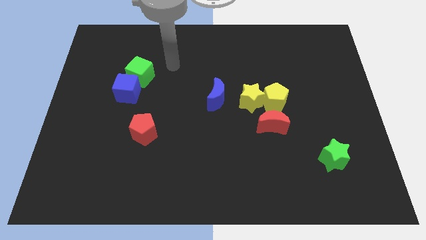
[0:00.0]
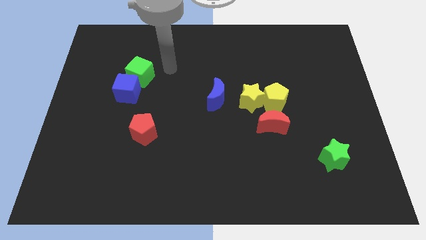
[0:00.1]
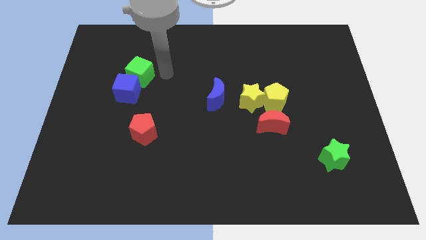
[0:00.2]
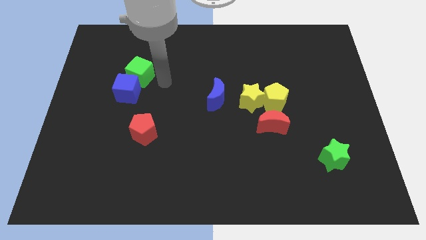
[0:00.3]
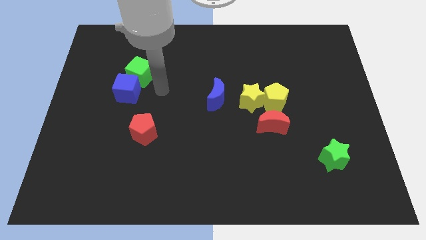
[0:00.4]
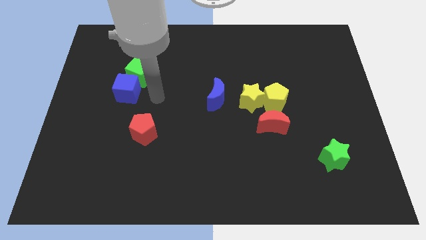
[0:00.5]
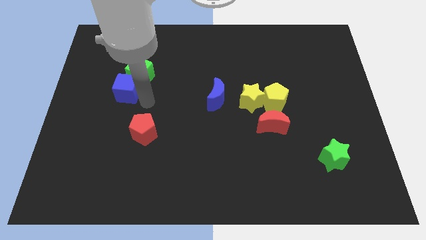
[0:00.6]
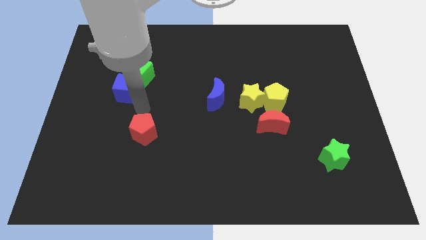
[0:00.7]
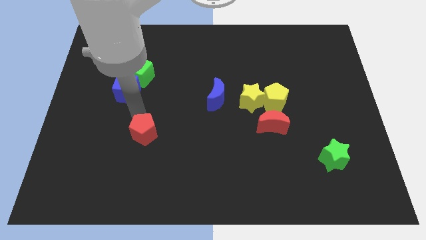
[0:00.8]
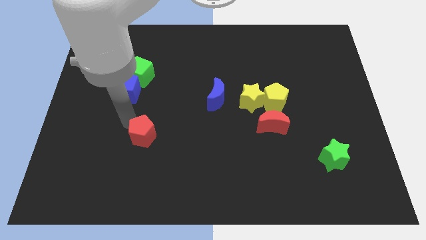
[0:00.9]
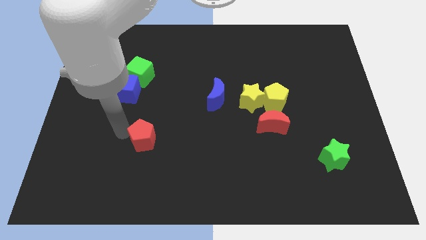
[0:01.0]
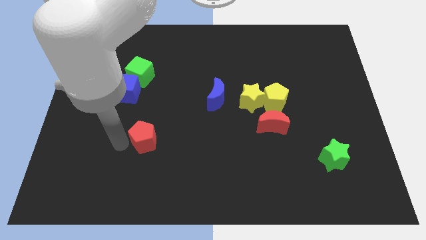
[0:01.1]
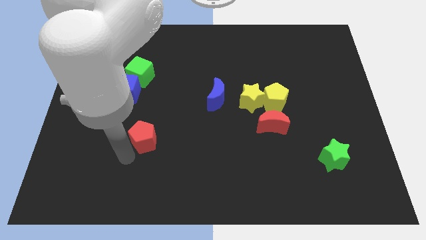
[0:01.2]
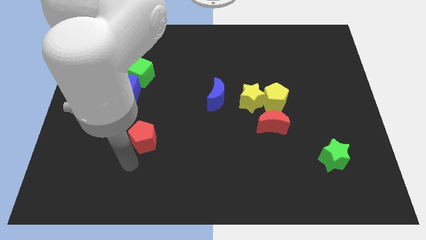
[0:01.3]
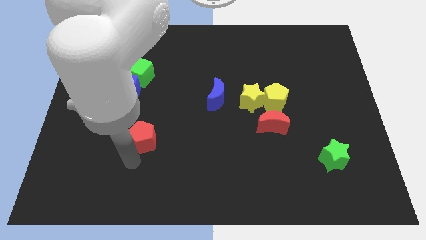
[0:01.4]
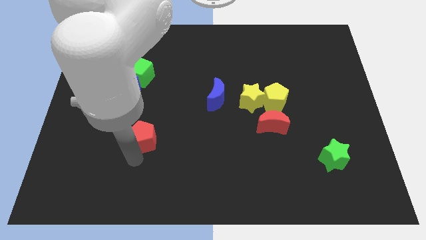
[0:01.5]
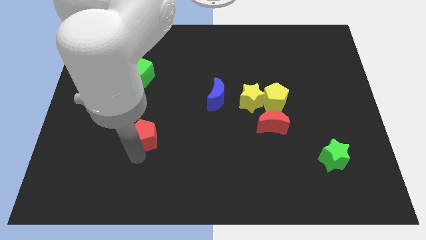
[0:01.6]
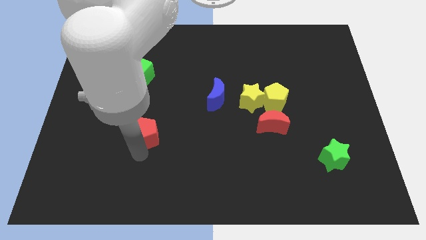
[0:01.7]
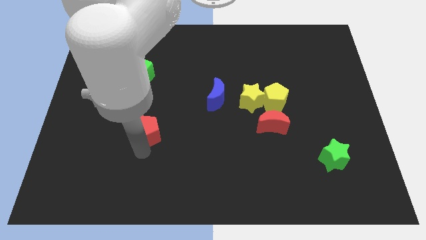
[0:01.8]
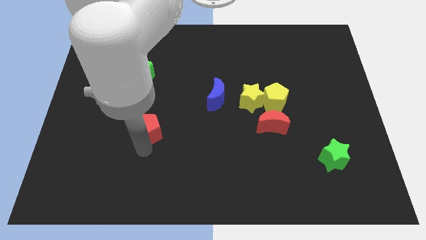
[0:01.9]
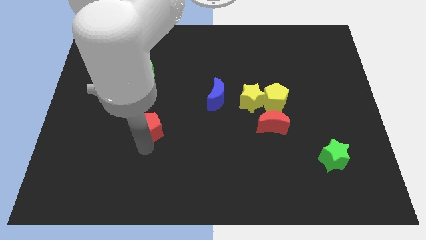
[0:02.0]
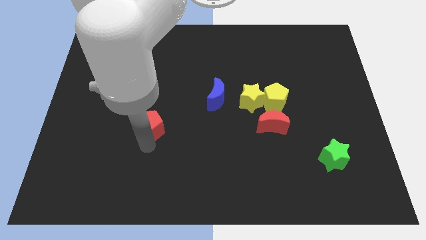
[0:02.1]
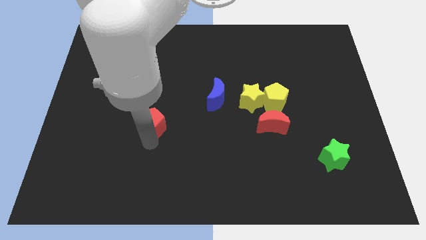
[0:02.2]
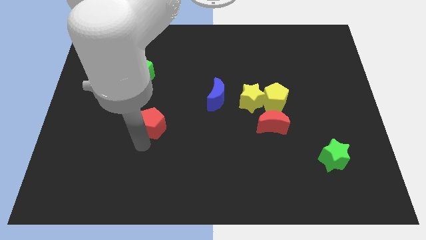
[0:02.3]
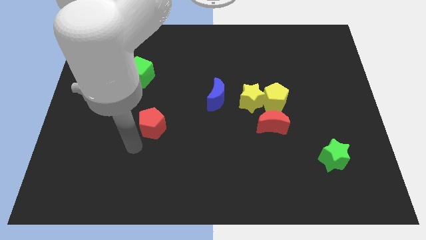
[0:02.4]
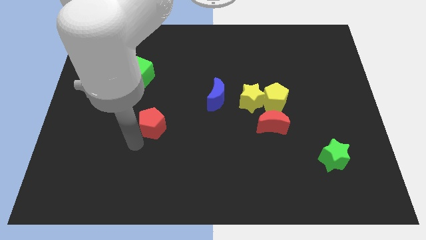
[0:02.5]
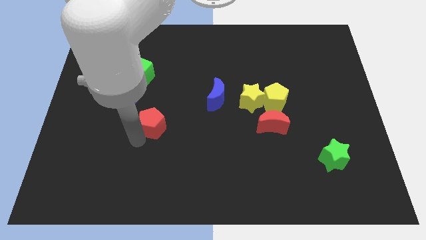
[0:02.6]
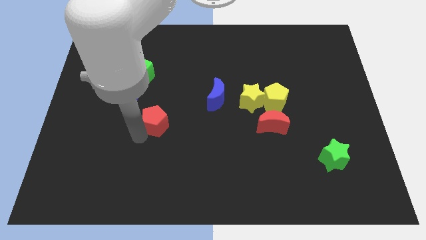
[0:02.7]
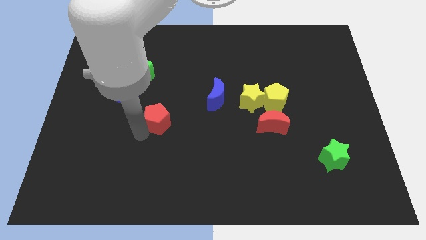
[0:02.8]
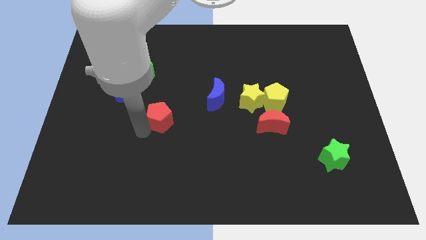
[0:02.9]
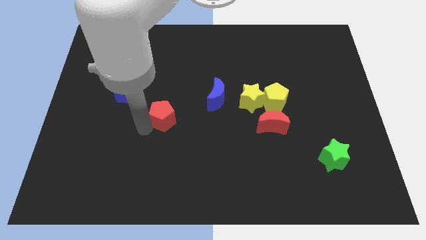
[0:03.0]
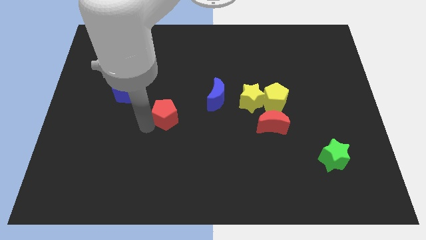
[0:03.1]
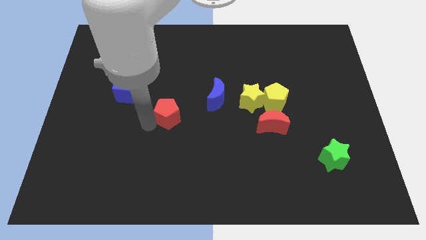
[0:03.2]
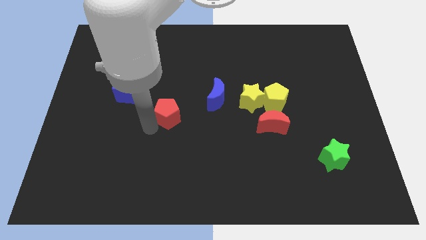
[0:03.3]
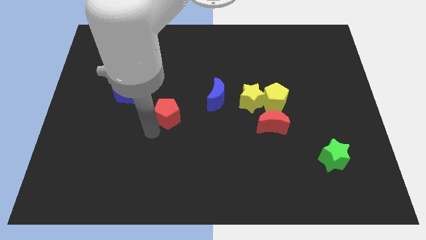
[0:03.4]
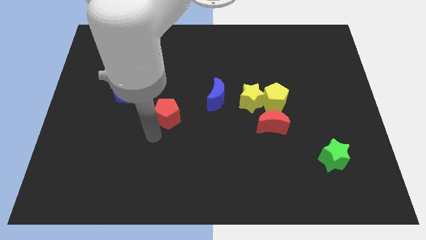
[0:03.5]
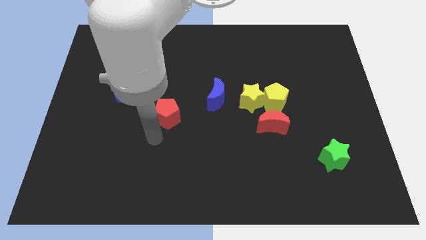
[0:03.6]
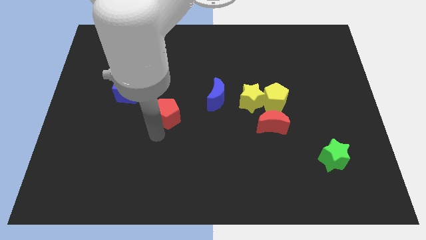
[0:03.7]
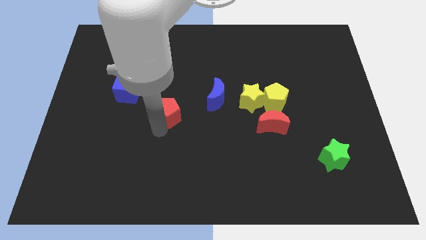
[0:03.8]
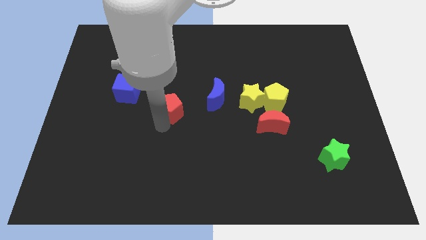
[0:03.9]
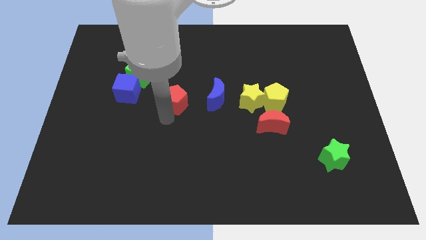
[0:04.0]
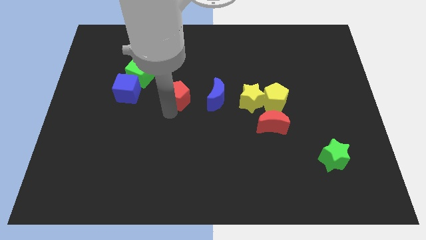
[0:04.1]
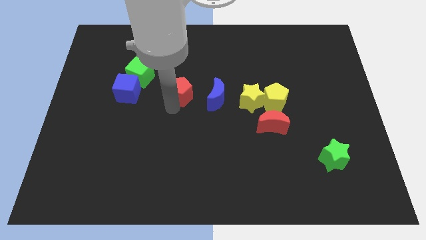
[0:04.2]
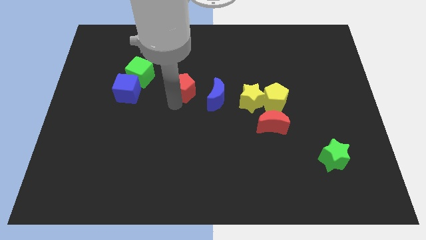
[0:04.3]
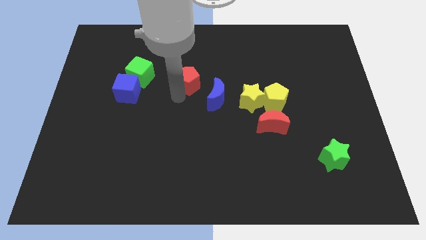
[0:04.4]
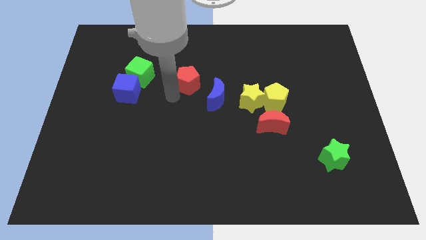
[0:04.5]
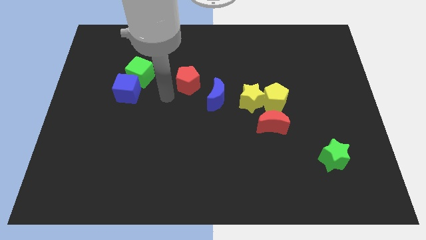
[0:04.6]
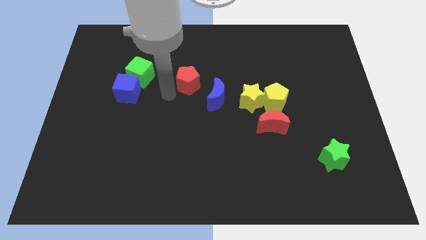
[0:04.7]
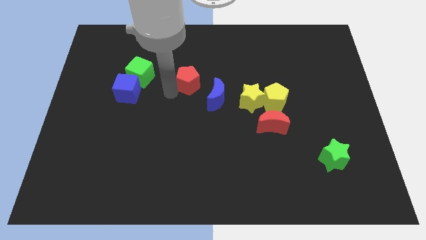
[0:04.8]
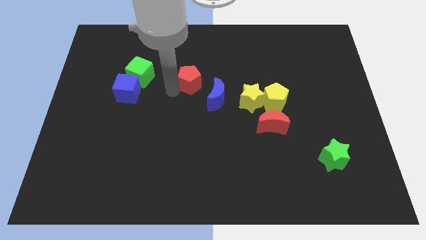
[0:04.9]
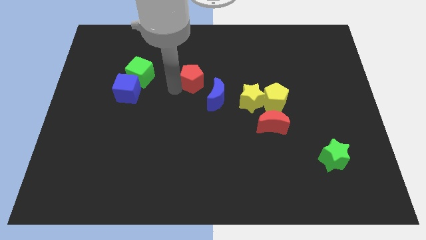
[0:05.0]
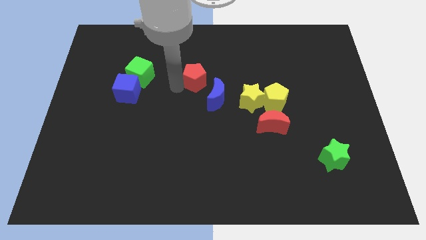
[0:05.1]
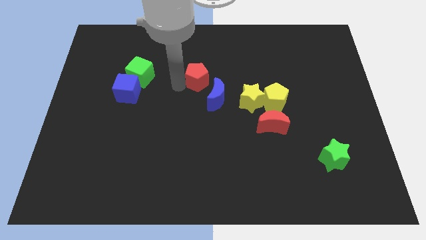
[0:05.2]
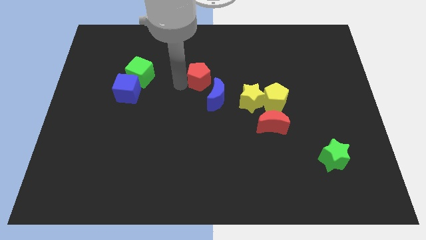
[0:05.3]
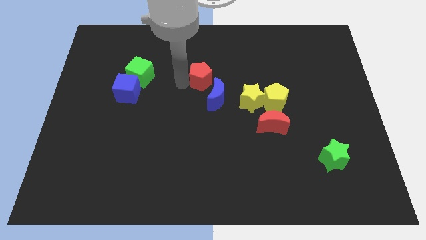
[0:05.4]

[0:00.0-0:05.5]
move the red pentagon up and to the right diagonally

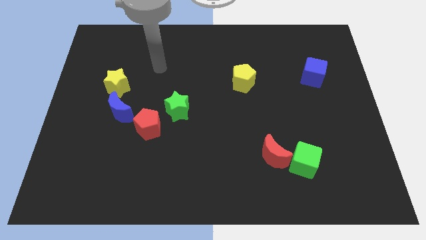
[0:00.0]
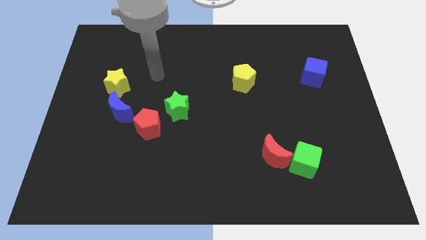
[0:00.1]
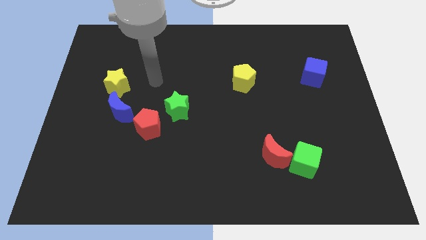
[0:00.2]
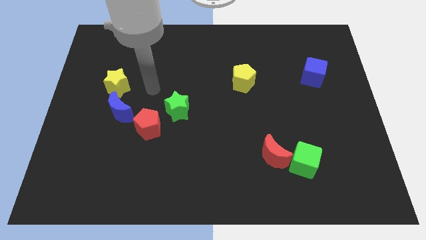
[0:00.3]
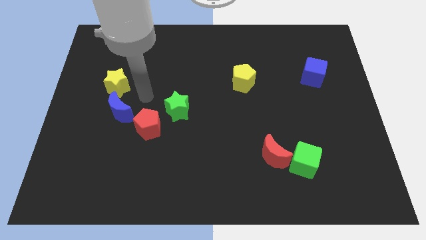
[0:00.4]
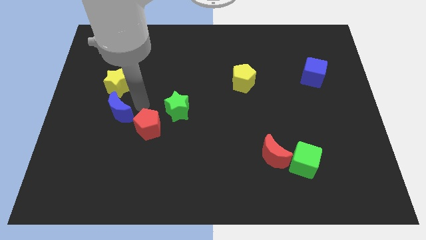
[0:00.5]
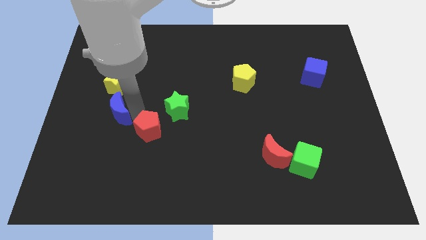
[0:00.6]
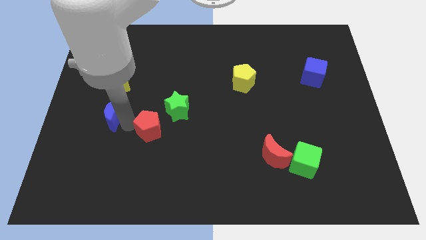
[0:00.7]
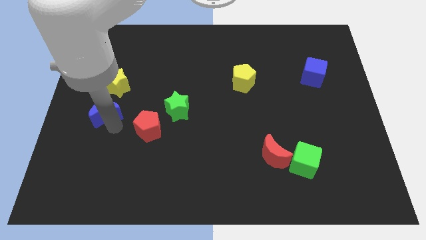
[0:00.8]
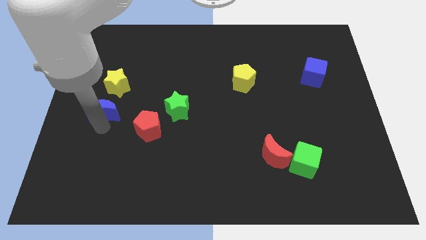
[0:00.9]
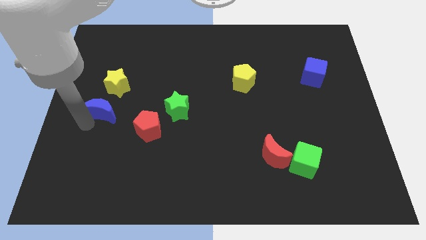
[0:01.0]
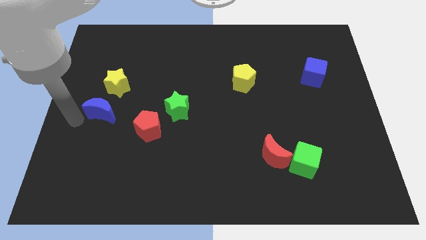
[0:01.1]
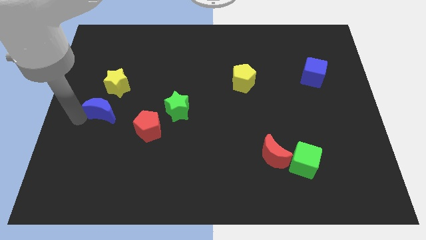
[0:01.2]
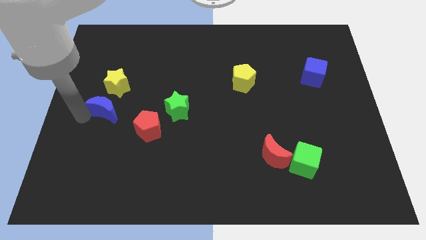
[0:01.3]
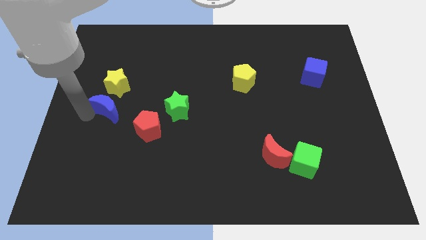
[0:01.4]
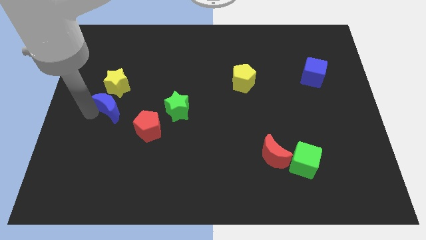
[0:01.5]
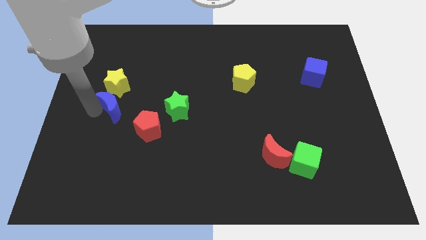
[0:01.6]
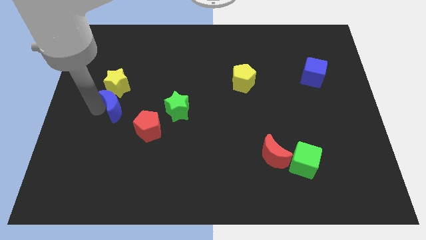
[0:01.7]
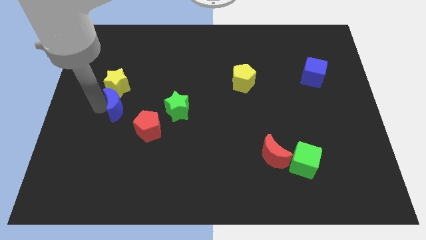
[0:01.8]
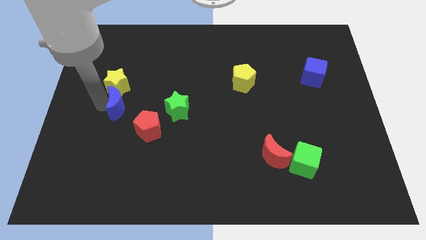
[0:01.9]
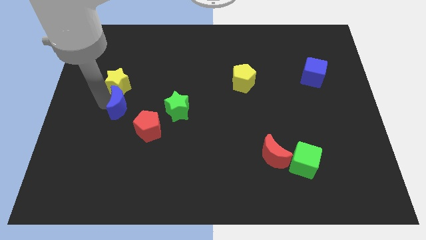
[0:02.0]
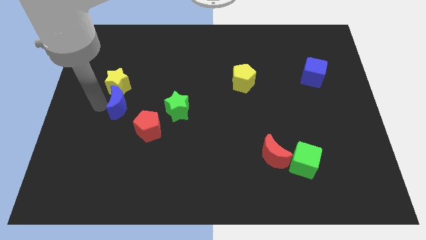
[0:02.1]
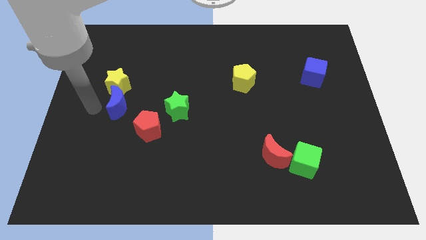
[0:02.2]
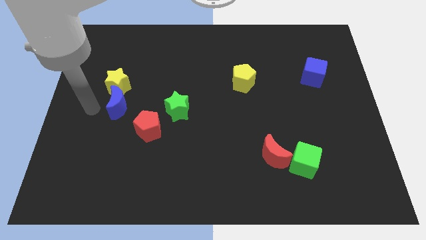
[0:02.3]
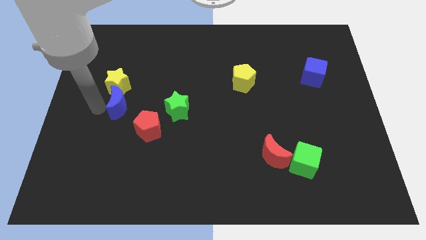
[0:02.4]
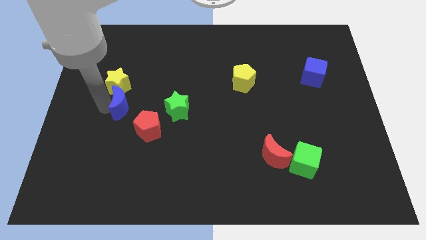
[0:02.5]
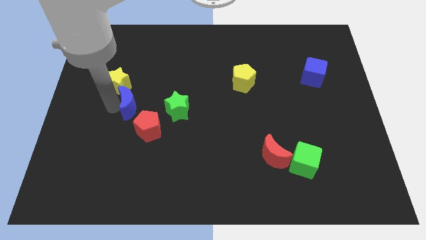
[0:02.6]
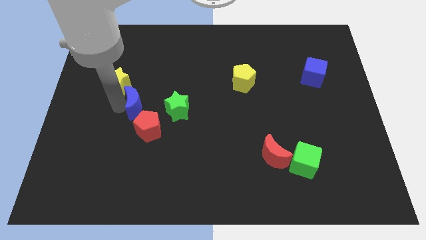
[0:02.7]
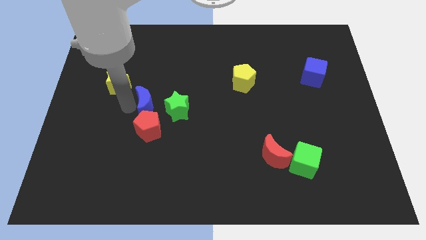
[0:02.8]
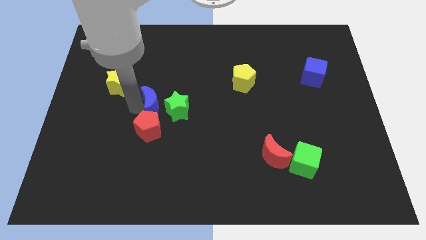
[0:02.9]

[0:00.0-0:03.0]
move the blue moon somewhat right
